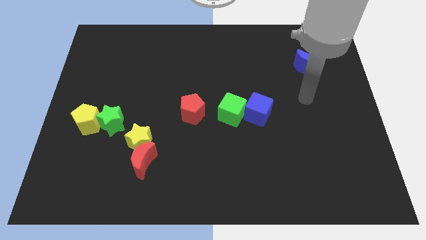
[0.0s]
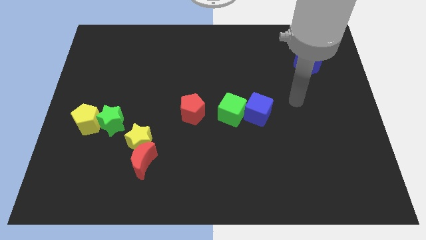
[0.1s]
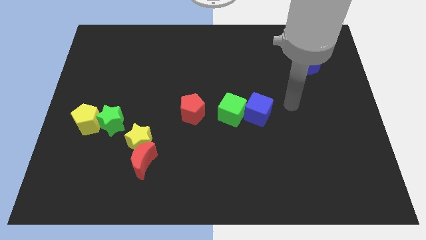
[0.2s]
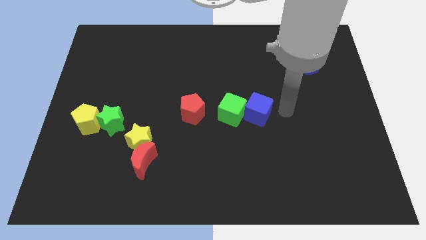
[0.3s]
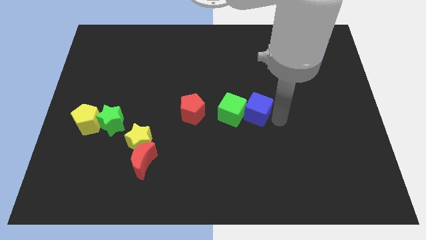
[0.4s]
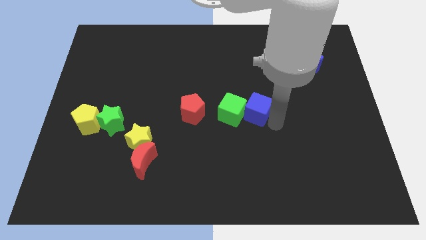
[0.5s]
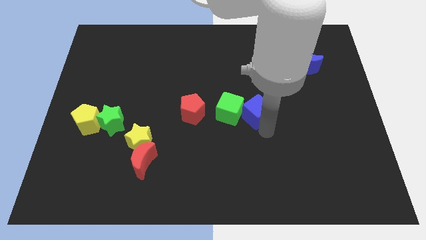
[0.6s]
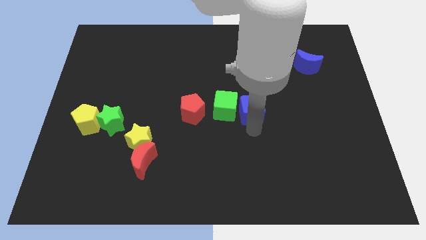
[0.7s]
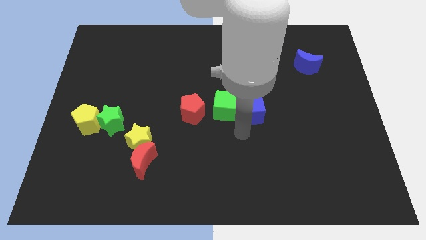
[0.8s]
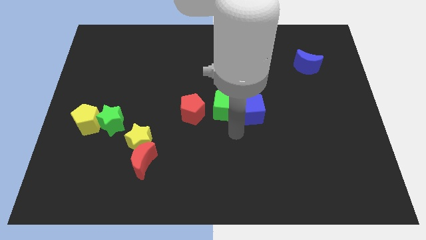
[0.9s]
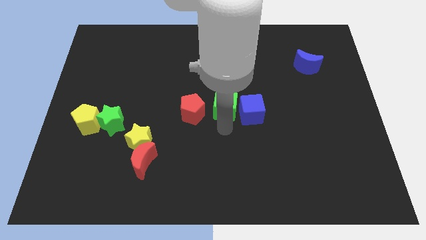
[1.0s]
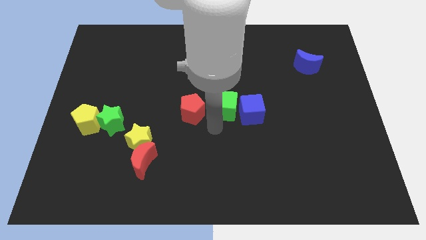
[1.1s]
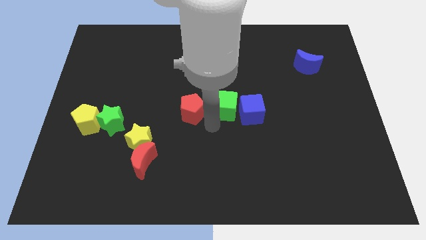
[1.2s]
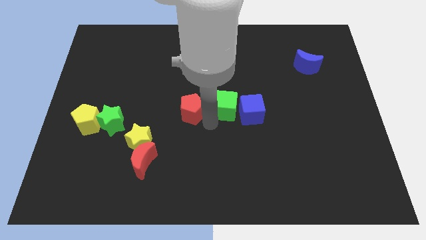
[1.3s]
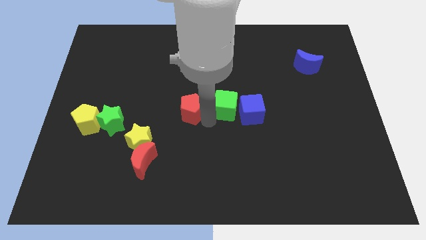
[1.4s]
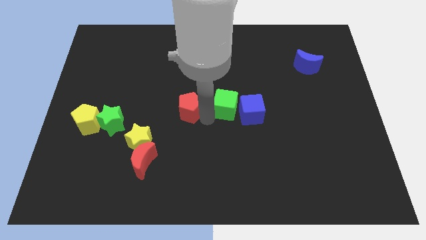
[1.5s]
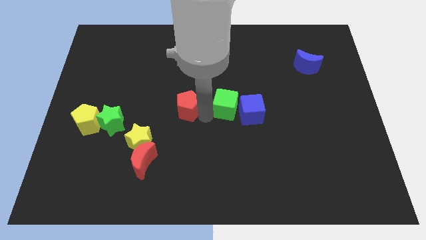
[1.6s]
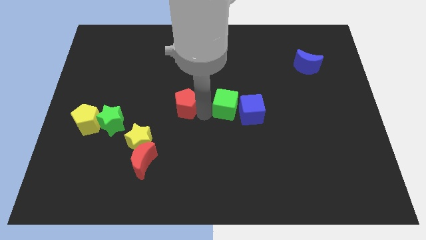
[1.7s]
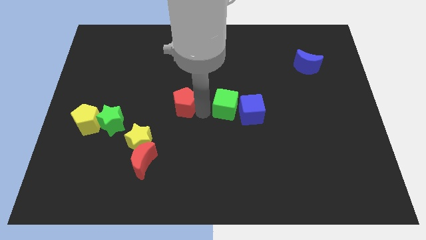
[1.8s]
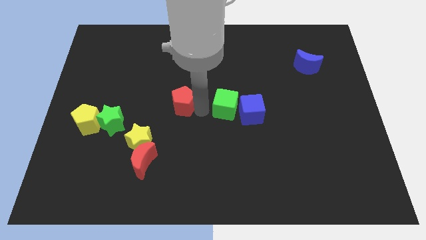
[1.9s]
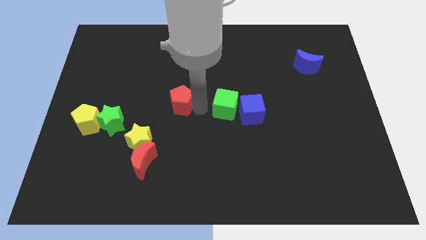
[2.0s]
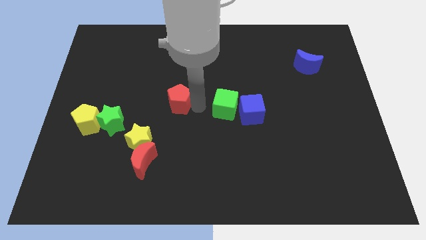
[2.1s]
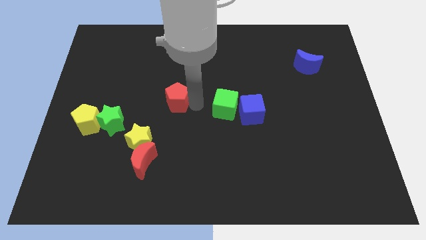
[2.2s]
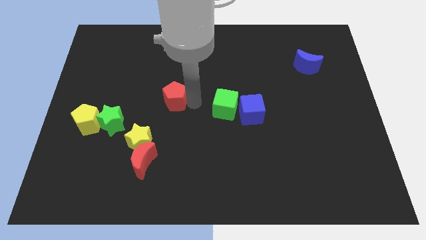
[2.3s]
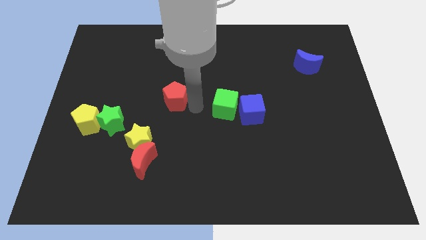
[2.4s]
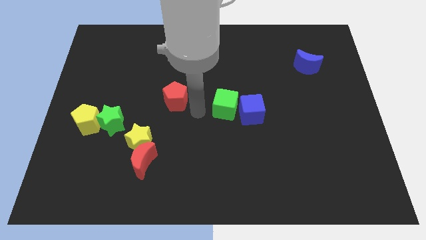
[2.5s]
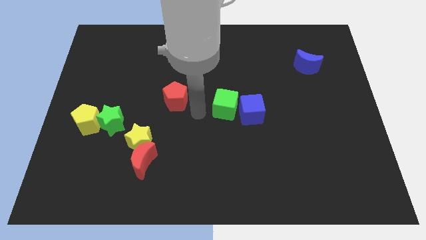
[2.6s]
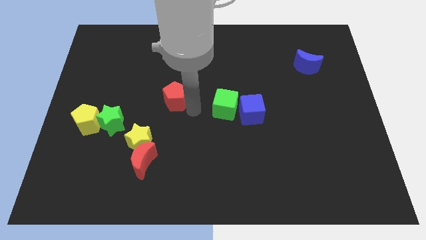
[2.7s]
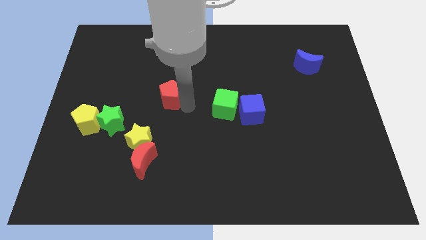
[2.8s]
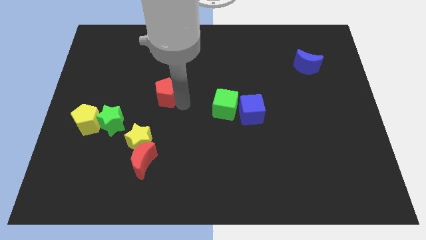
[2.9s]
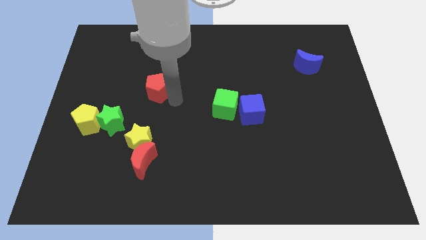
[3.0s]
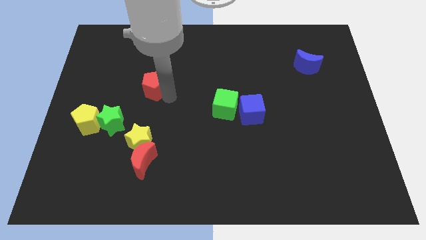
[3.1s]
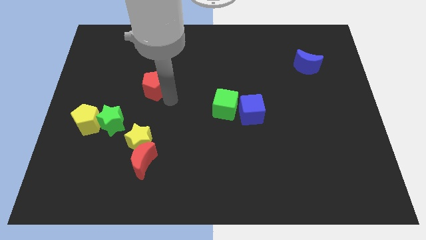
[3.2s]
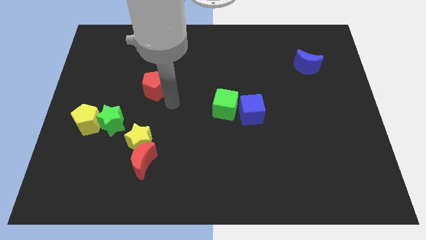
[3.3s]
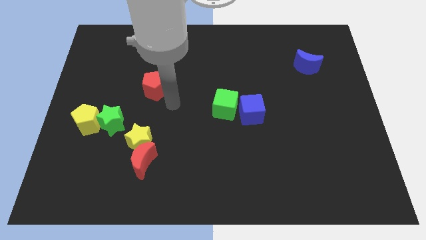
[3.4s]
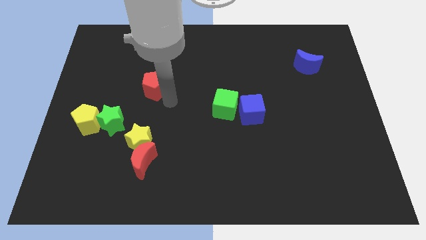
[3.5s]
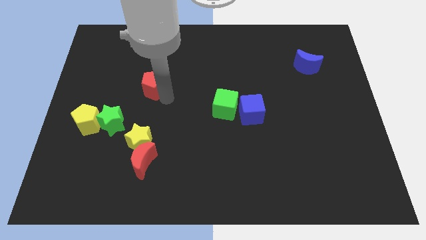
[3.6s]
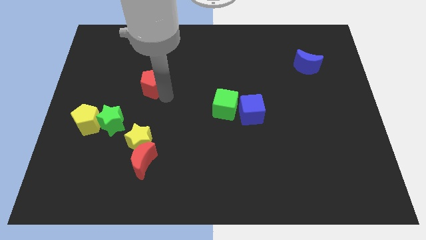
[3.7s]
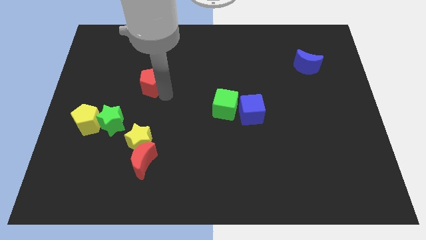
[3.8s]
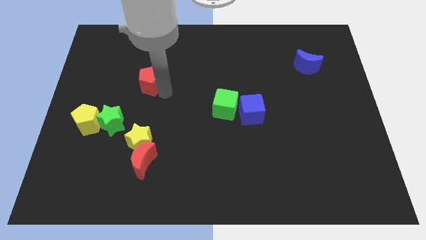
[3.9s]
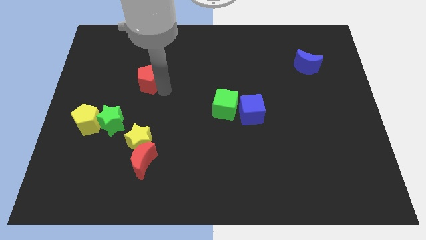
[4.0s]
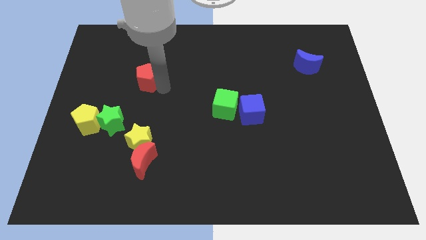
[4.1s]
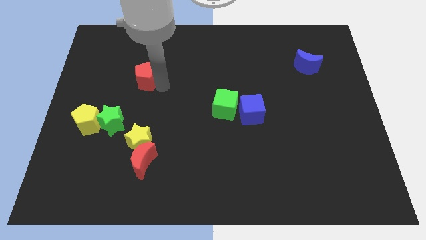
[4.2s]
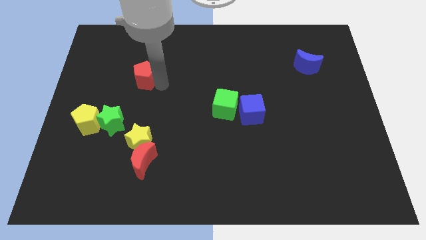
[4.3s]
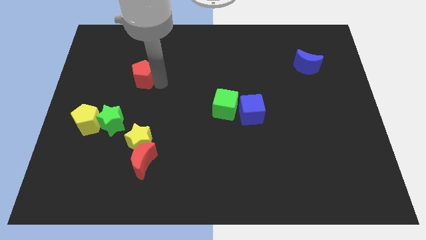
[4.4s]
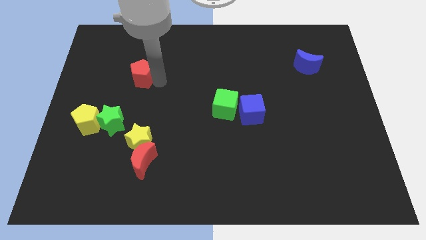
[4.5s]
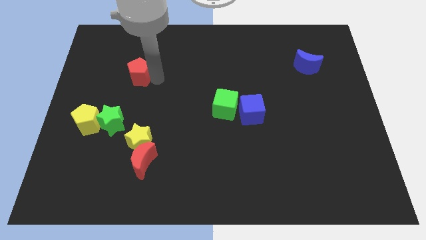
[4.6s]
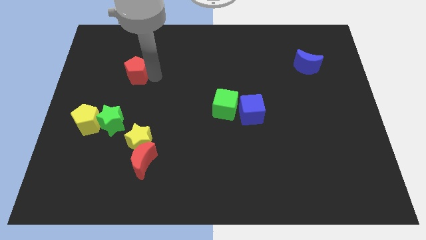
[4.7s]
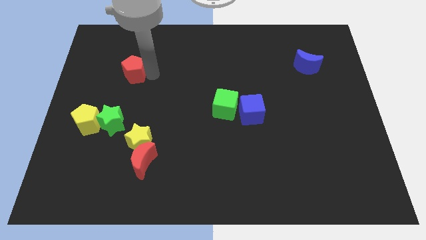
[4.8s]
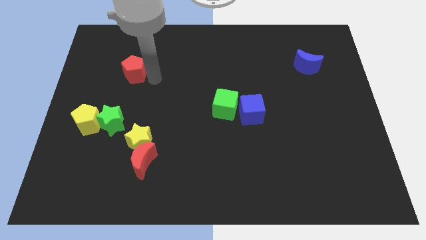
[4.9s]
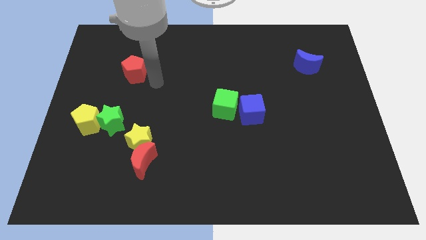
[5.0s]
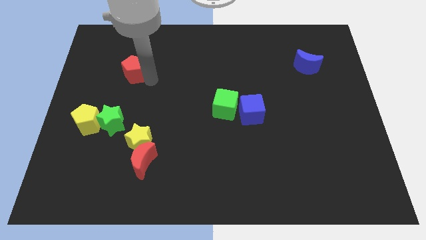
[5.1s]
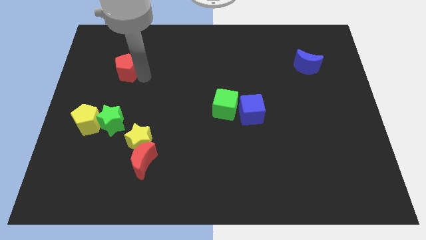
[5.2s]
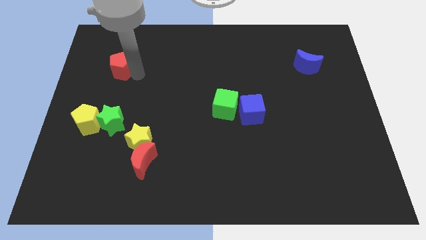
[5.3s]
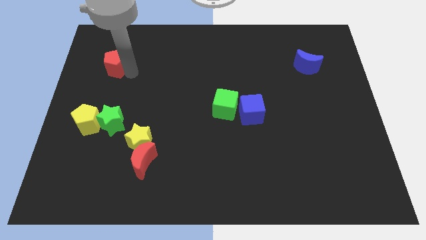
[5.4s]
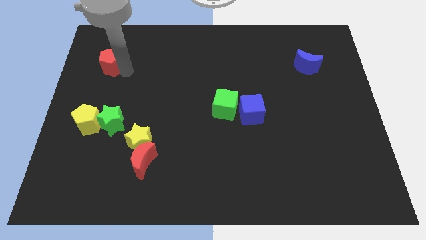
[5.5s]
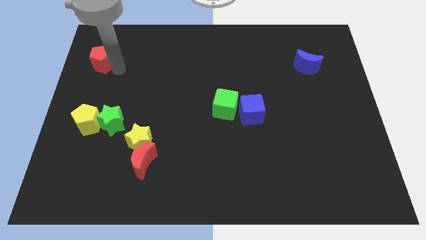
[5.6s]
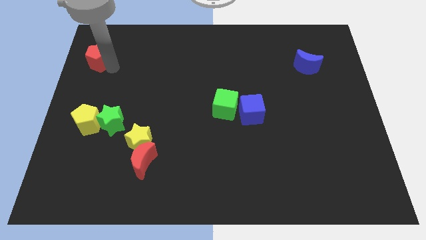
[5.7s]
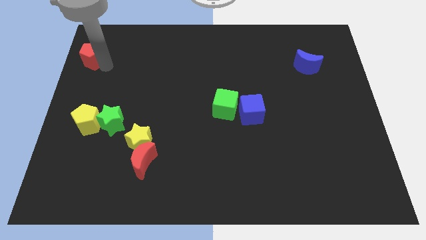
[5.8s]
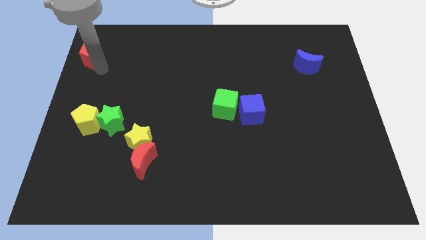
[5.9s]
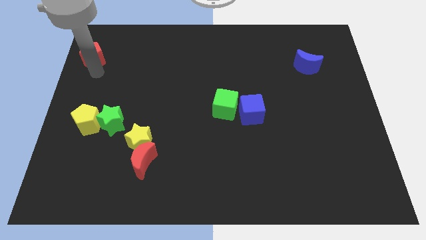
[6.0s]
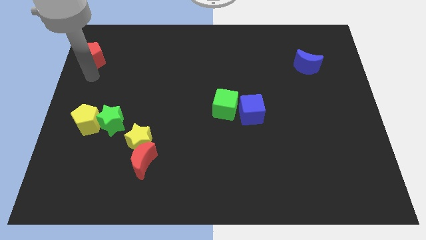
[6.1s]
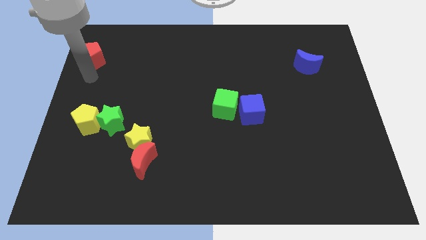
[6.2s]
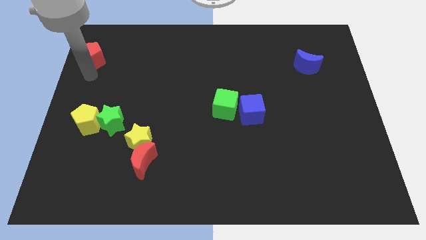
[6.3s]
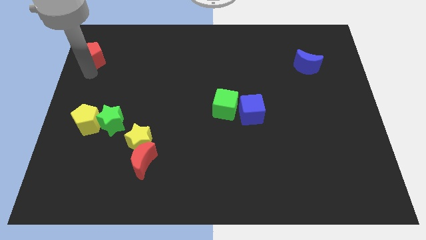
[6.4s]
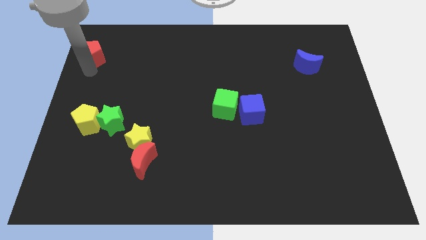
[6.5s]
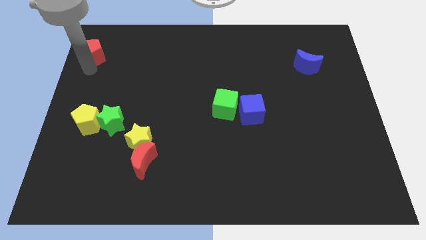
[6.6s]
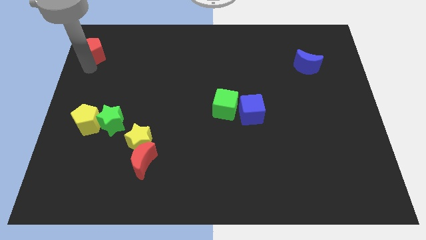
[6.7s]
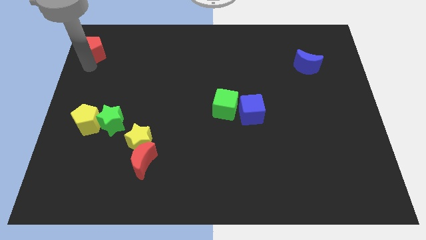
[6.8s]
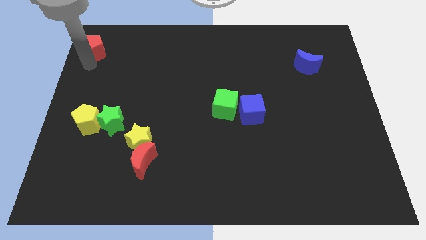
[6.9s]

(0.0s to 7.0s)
move the red pentagon to the top left
